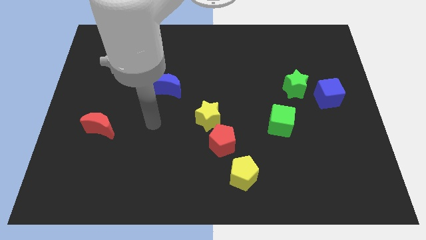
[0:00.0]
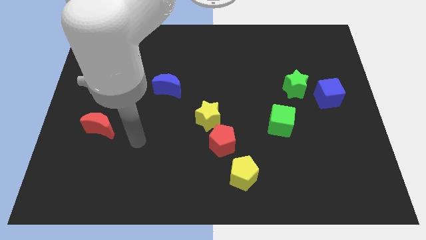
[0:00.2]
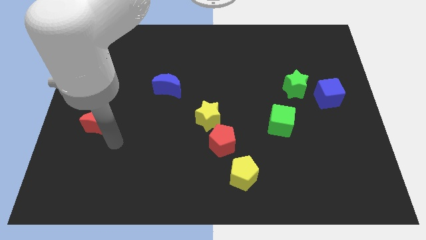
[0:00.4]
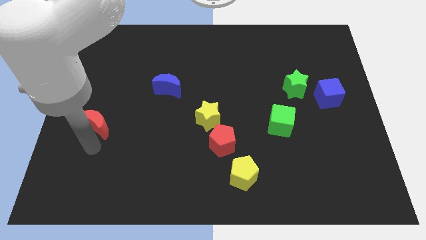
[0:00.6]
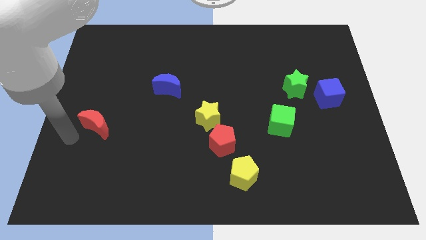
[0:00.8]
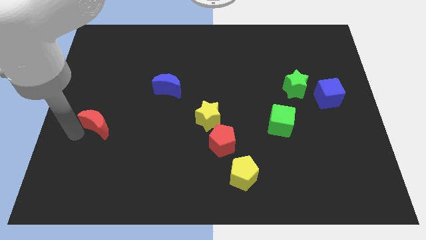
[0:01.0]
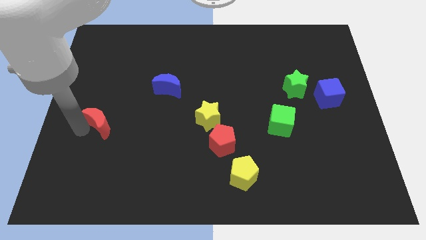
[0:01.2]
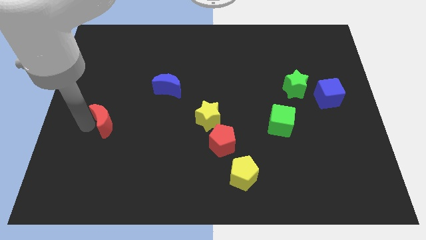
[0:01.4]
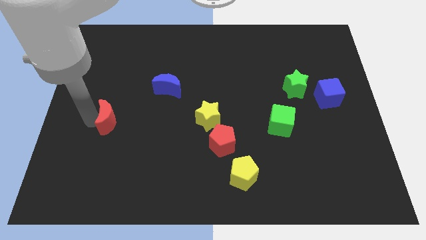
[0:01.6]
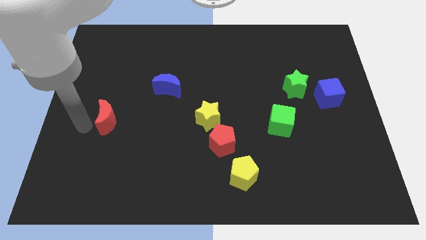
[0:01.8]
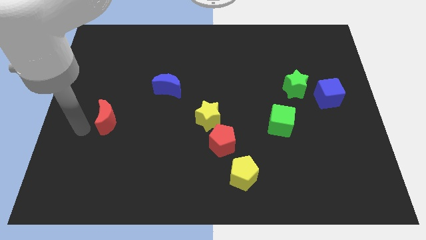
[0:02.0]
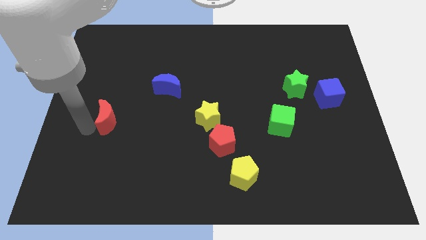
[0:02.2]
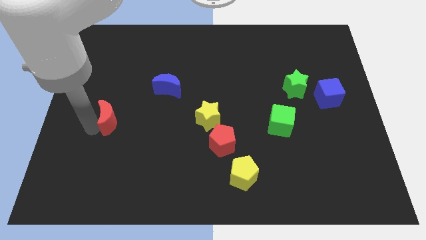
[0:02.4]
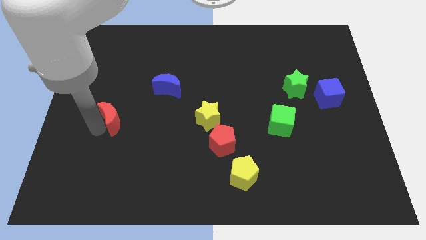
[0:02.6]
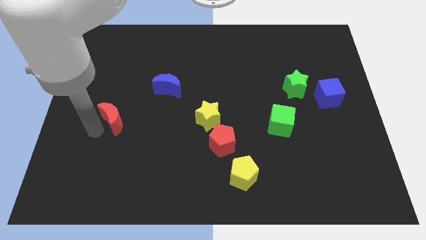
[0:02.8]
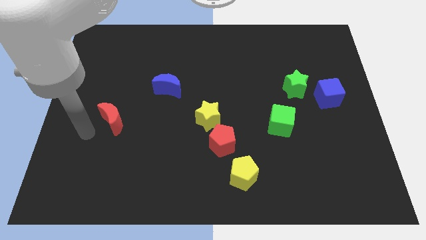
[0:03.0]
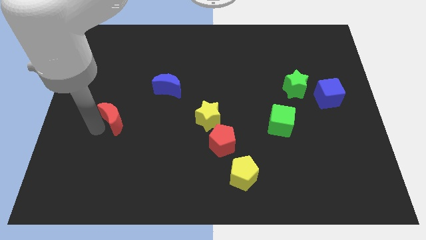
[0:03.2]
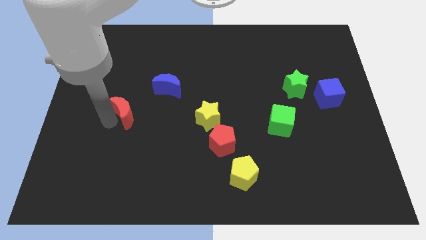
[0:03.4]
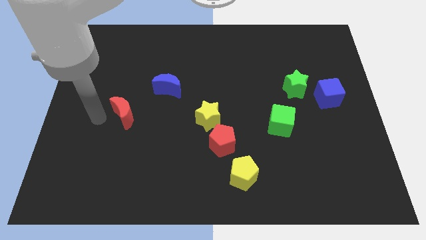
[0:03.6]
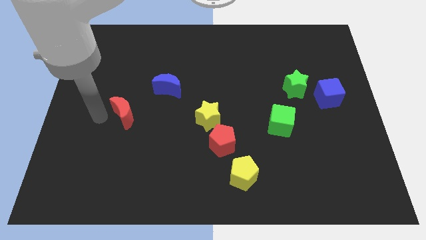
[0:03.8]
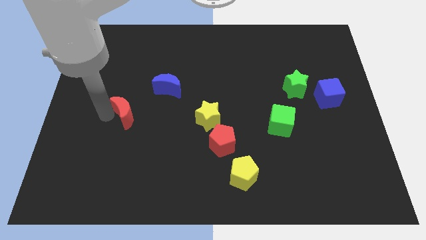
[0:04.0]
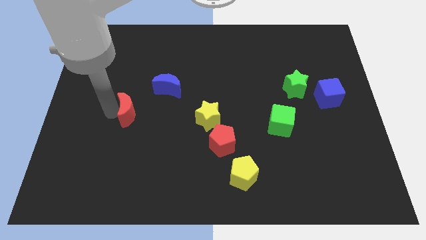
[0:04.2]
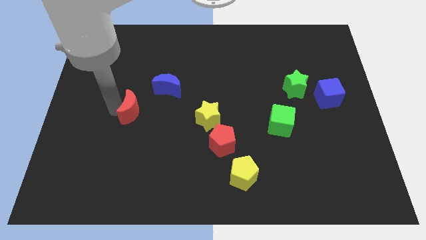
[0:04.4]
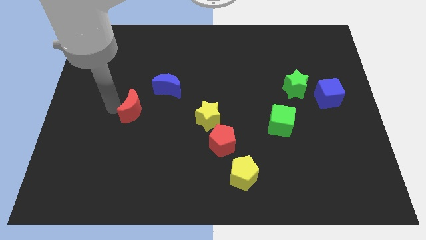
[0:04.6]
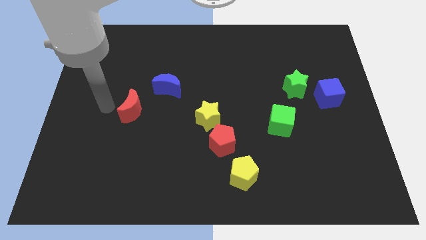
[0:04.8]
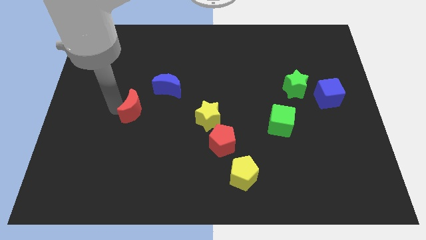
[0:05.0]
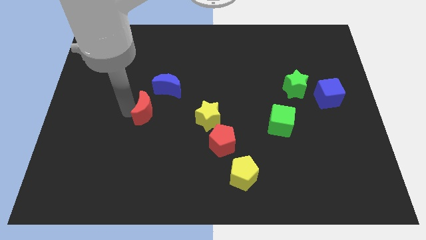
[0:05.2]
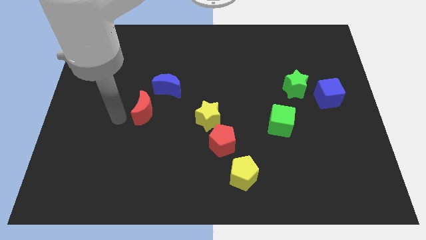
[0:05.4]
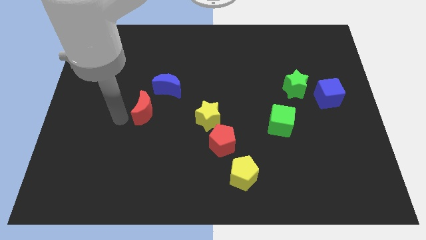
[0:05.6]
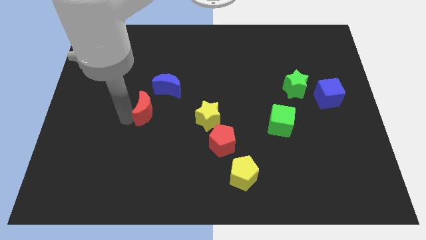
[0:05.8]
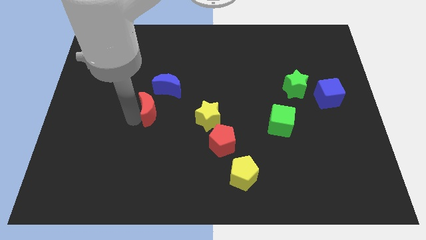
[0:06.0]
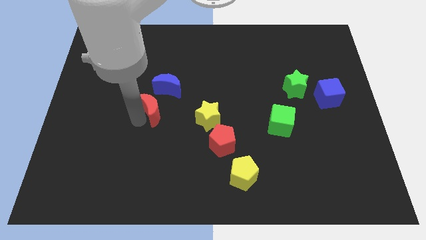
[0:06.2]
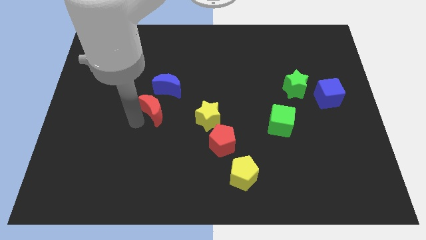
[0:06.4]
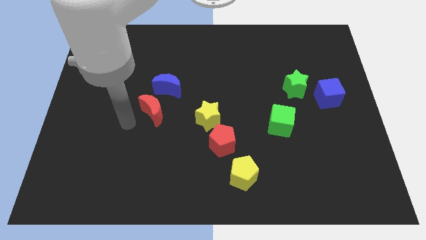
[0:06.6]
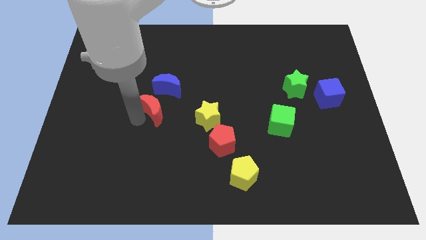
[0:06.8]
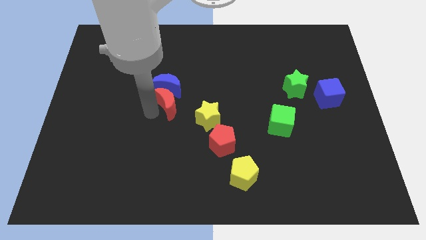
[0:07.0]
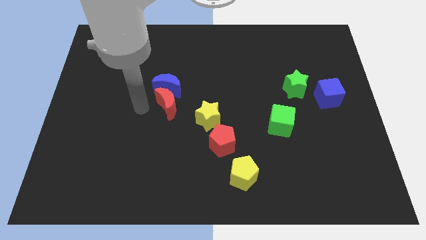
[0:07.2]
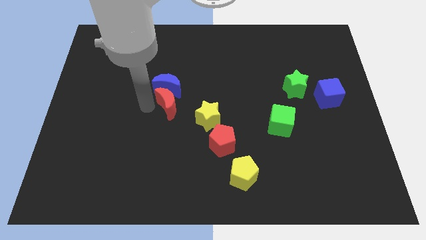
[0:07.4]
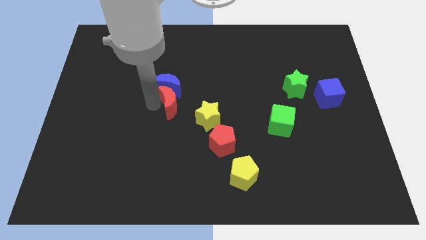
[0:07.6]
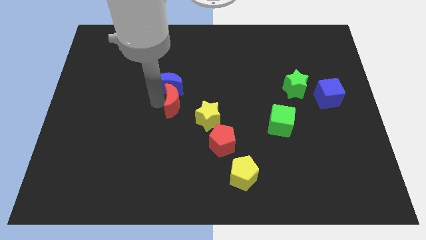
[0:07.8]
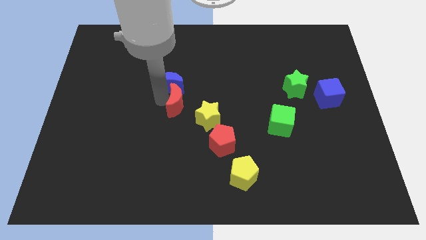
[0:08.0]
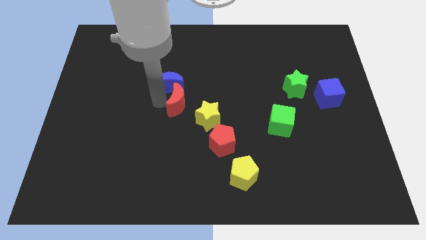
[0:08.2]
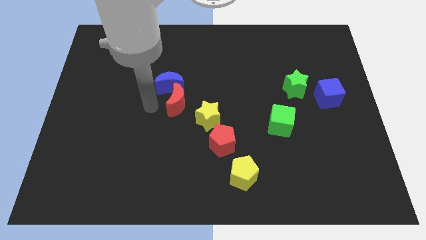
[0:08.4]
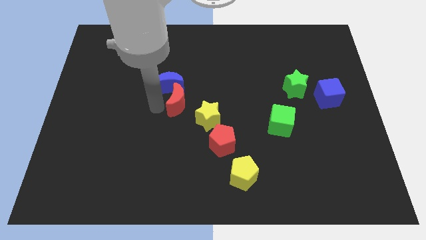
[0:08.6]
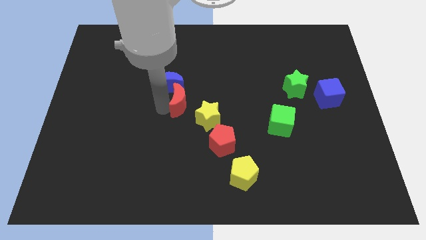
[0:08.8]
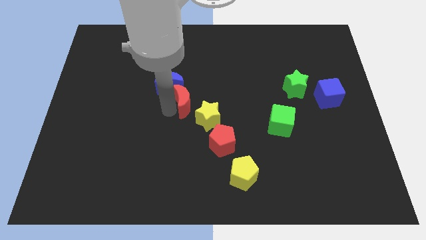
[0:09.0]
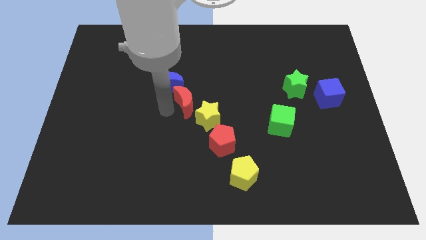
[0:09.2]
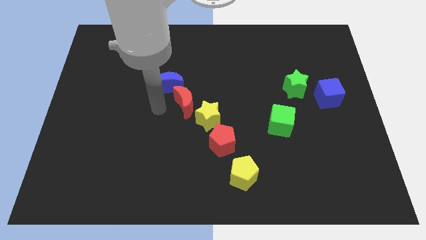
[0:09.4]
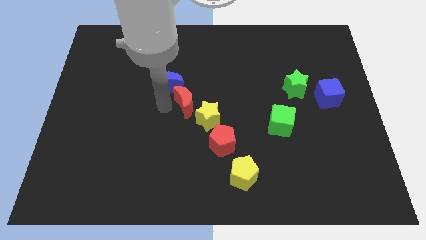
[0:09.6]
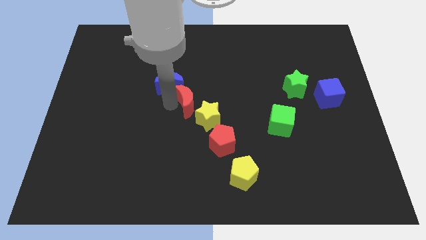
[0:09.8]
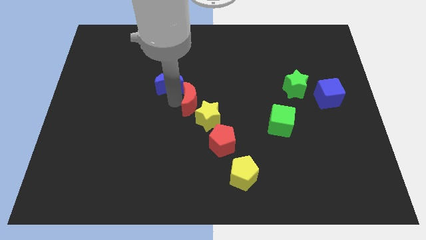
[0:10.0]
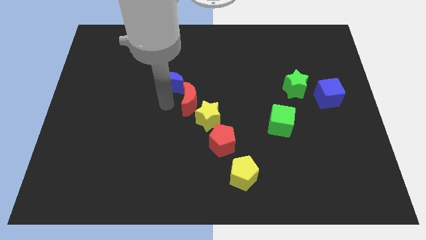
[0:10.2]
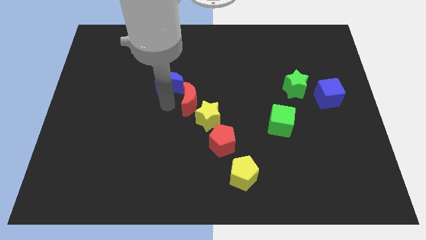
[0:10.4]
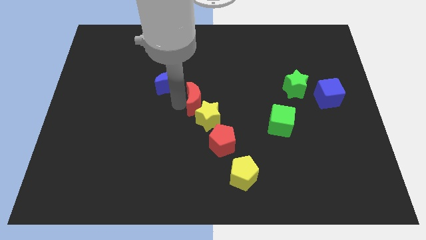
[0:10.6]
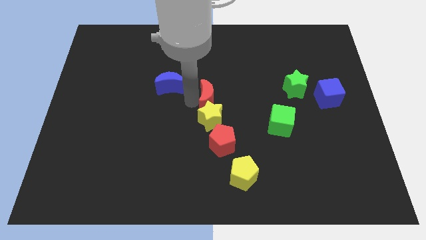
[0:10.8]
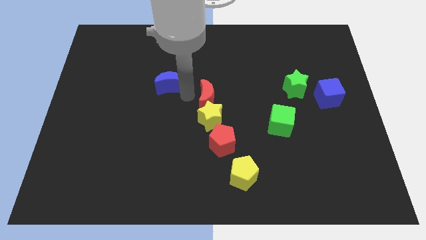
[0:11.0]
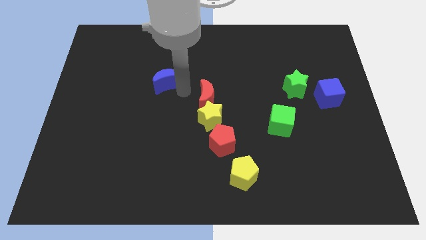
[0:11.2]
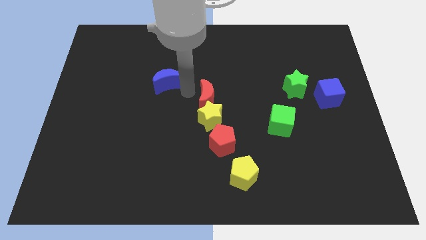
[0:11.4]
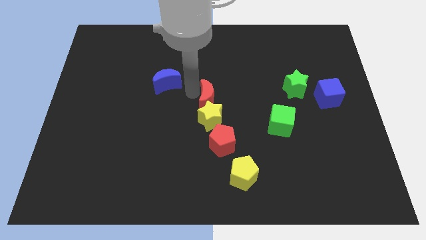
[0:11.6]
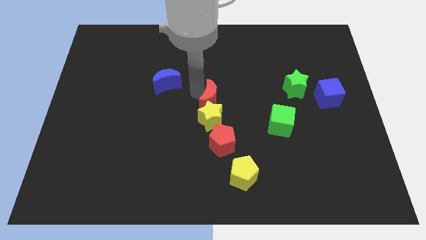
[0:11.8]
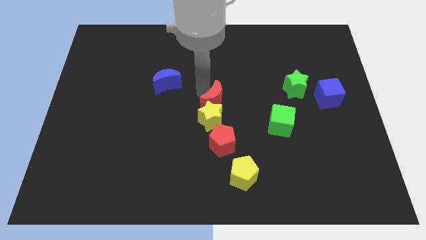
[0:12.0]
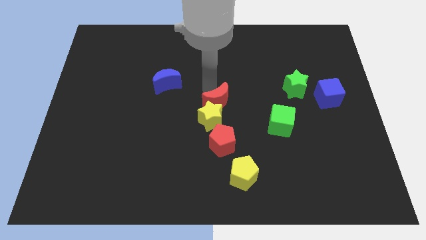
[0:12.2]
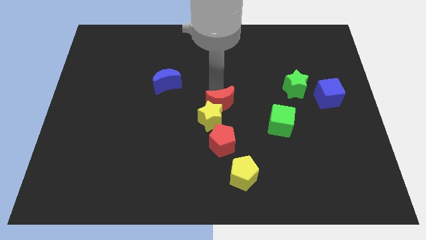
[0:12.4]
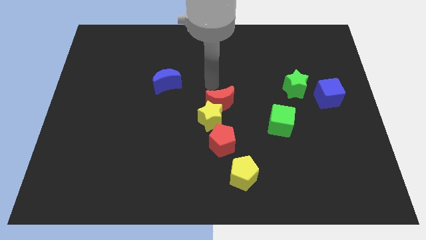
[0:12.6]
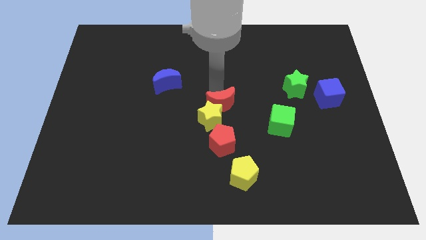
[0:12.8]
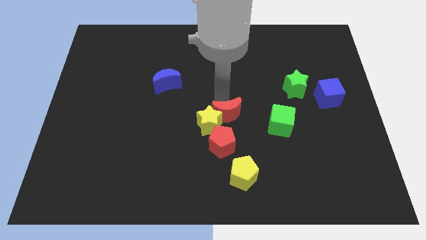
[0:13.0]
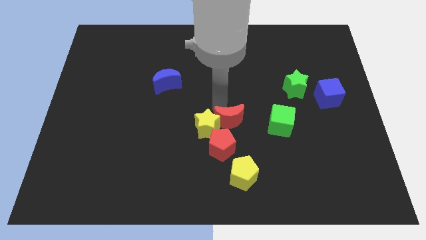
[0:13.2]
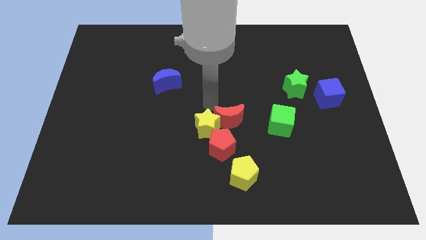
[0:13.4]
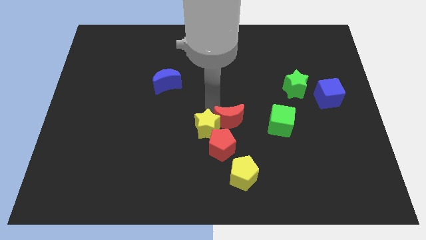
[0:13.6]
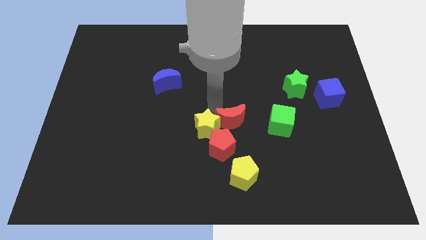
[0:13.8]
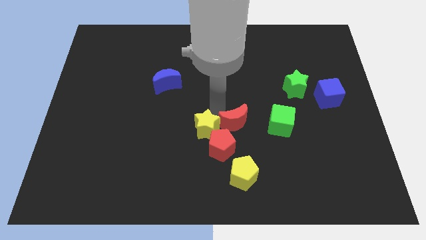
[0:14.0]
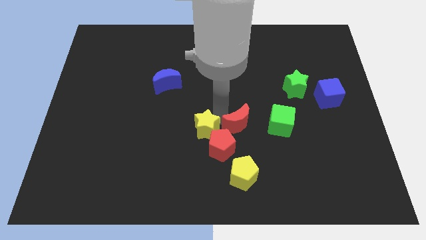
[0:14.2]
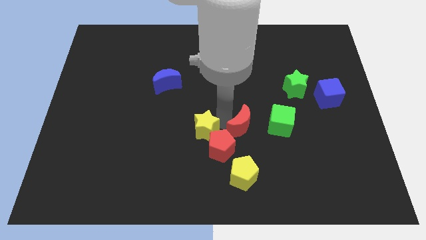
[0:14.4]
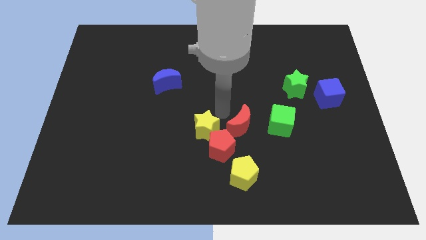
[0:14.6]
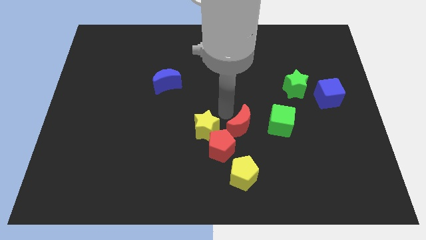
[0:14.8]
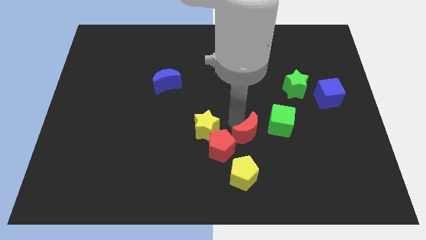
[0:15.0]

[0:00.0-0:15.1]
move the red moon to the bottom left of the green cube
